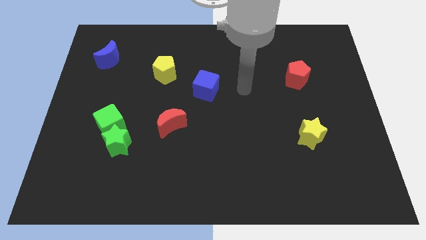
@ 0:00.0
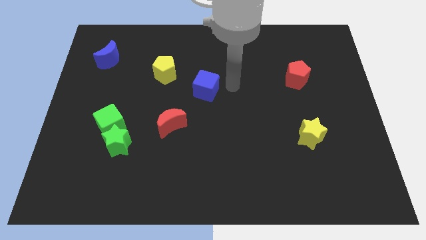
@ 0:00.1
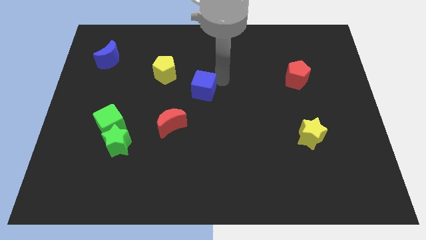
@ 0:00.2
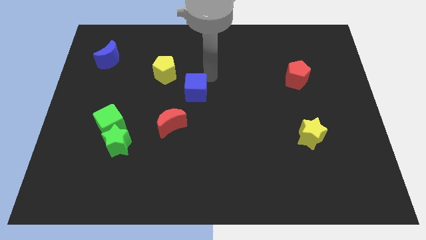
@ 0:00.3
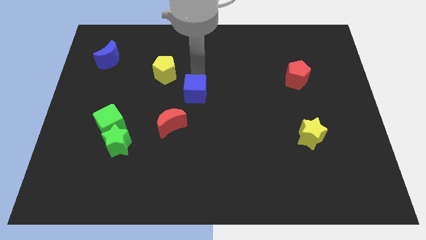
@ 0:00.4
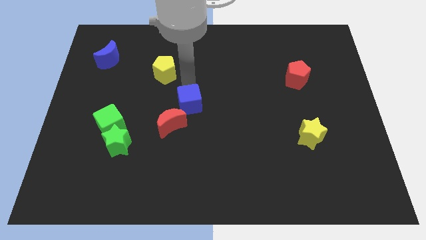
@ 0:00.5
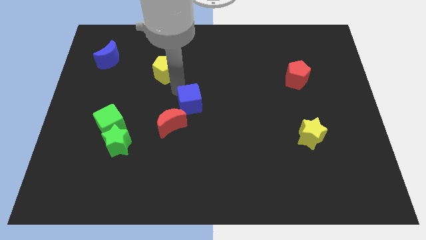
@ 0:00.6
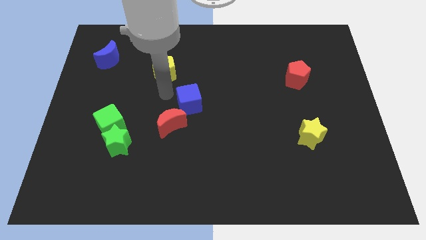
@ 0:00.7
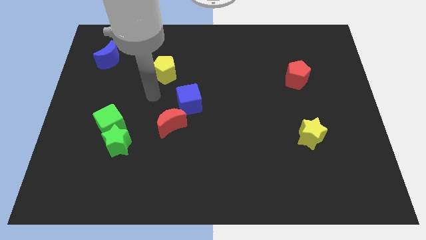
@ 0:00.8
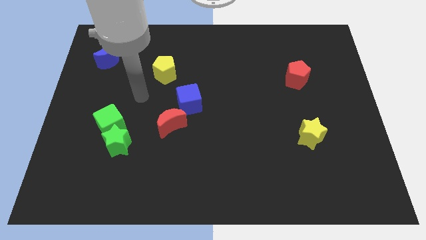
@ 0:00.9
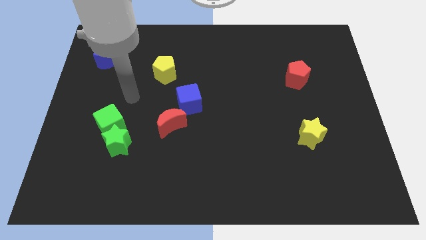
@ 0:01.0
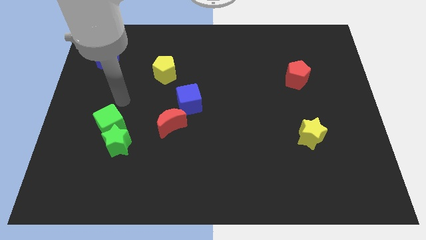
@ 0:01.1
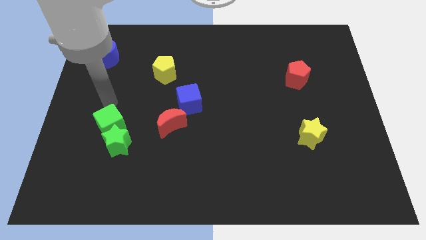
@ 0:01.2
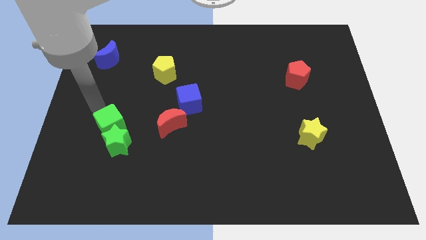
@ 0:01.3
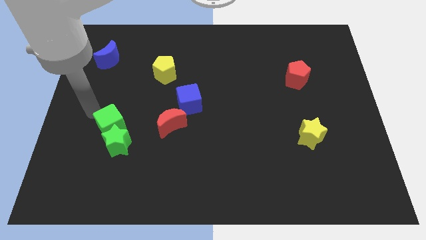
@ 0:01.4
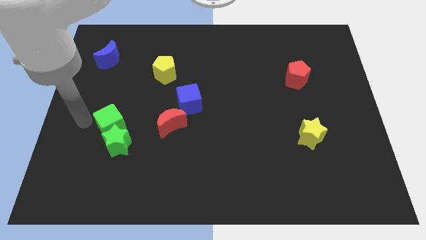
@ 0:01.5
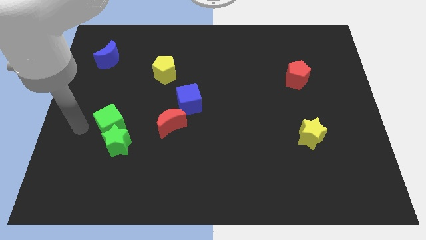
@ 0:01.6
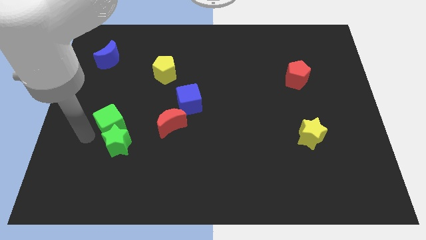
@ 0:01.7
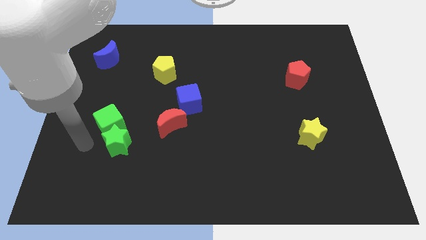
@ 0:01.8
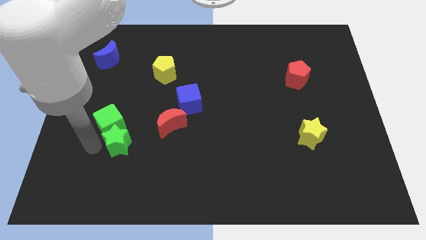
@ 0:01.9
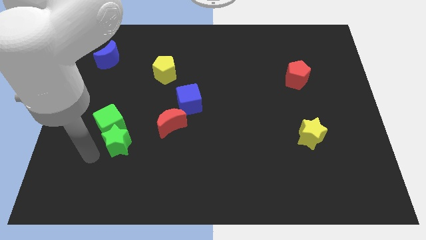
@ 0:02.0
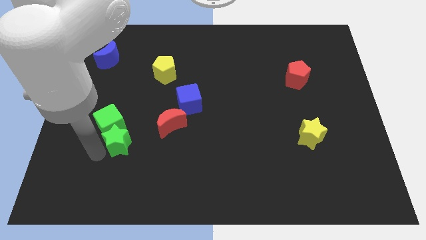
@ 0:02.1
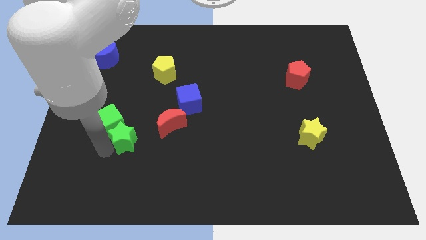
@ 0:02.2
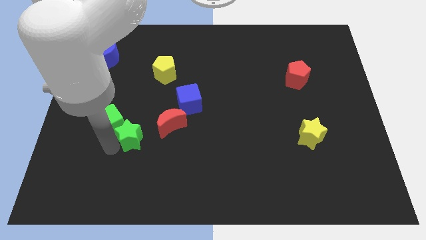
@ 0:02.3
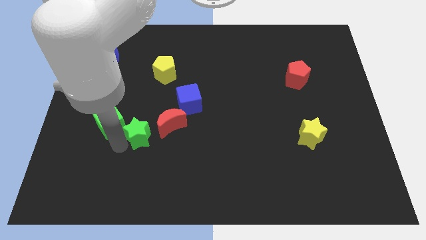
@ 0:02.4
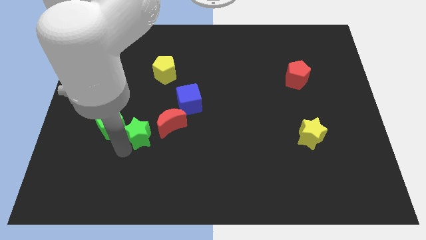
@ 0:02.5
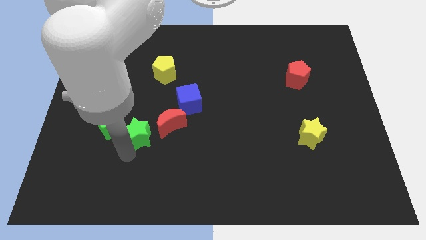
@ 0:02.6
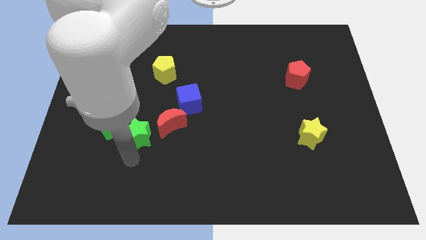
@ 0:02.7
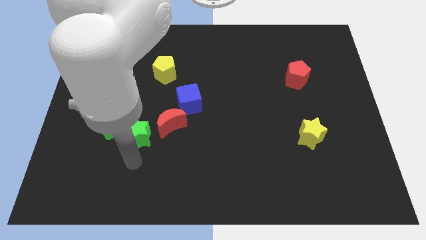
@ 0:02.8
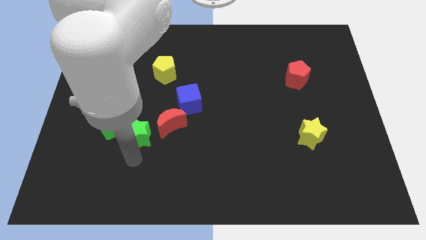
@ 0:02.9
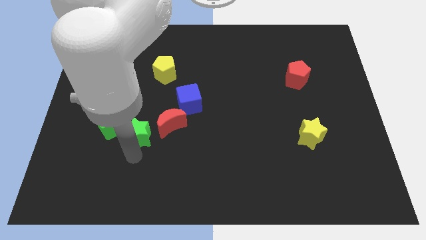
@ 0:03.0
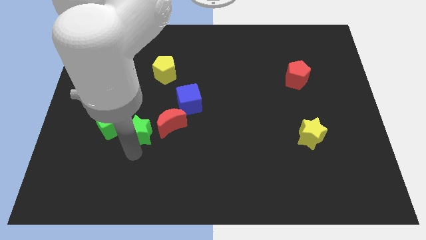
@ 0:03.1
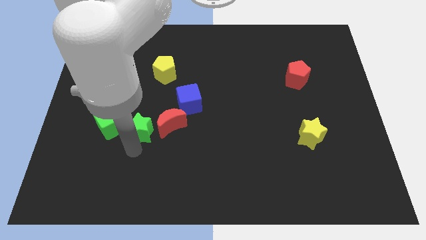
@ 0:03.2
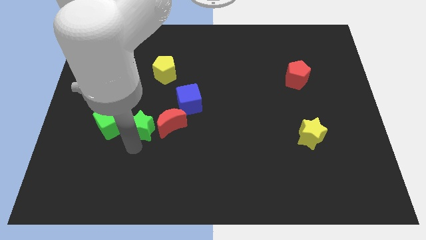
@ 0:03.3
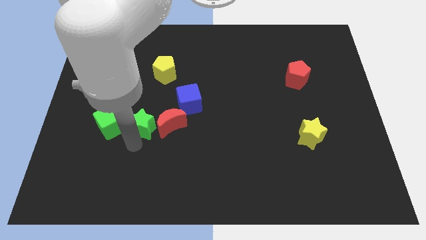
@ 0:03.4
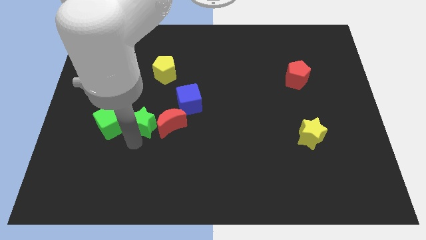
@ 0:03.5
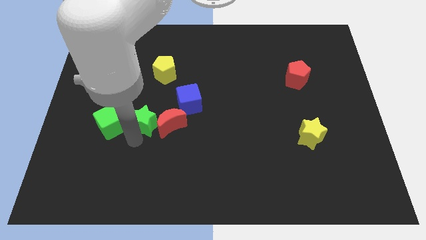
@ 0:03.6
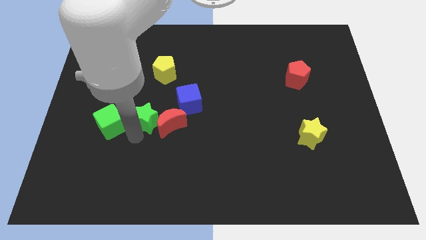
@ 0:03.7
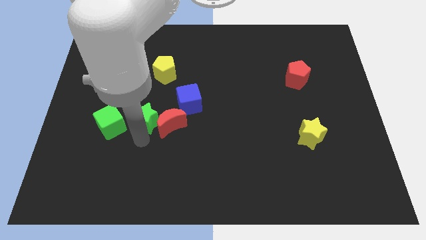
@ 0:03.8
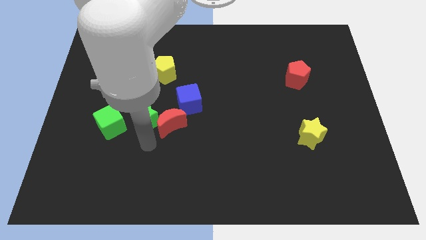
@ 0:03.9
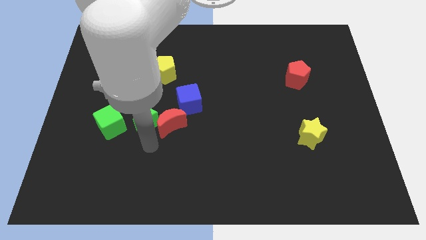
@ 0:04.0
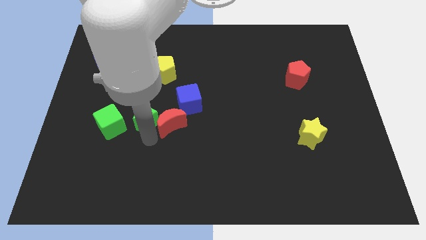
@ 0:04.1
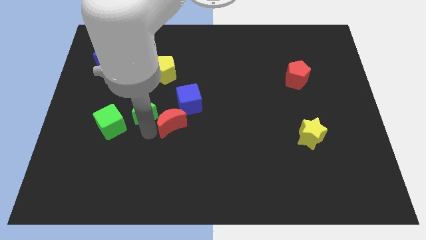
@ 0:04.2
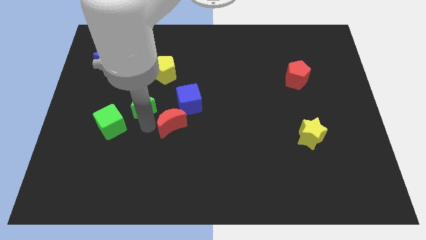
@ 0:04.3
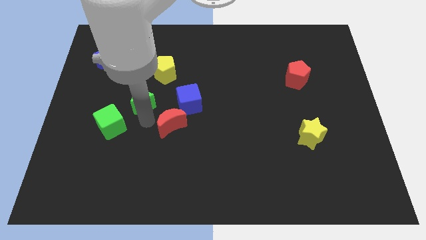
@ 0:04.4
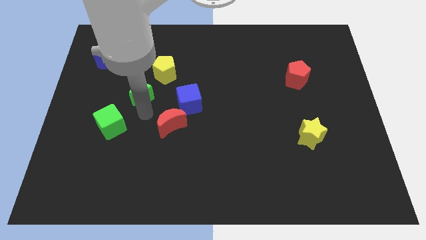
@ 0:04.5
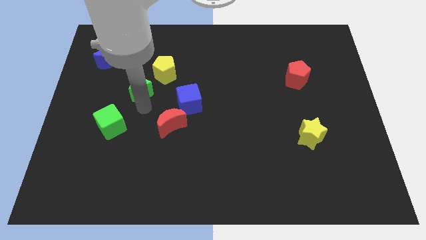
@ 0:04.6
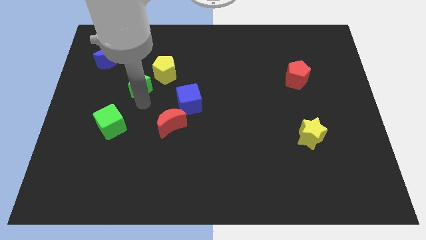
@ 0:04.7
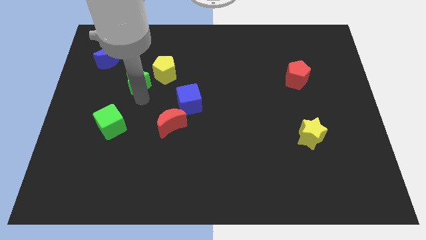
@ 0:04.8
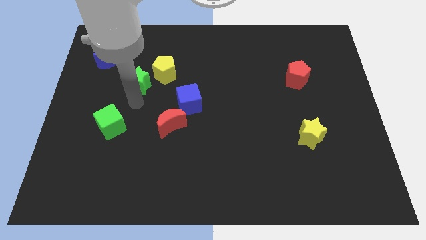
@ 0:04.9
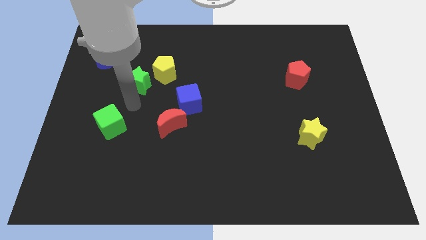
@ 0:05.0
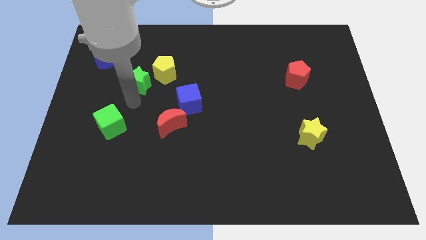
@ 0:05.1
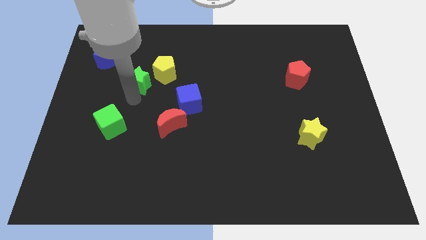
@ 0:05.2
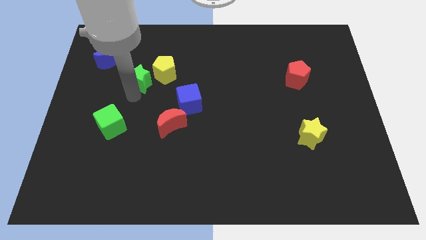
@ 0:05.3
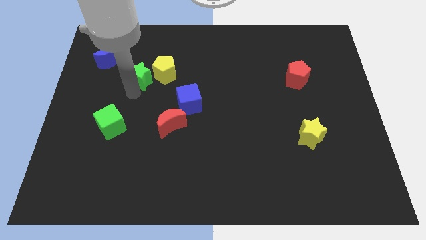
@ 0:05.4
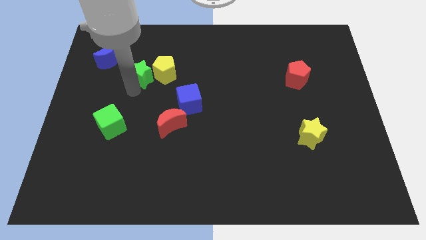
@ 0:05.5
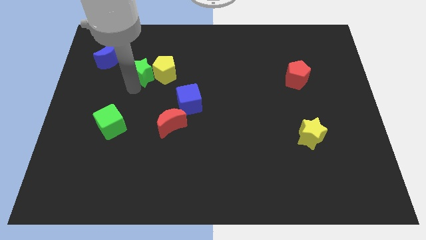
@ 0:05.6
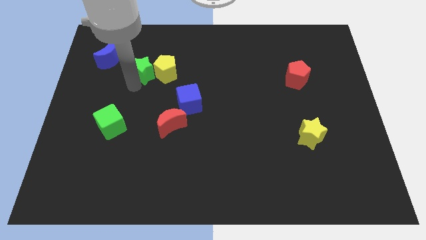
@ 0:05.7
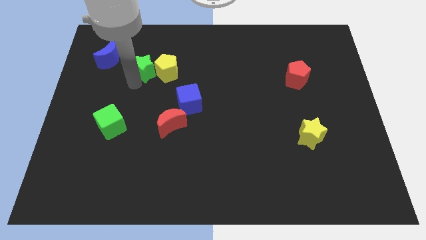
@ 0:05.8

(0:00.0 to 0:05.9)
put the green star to the right side of the blue moon

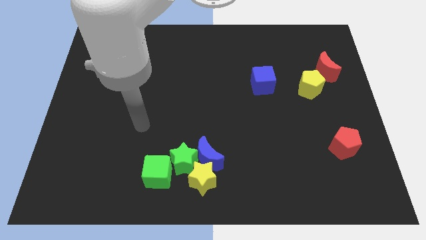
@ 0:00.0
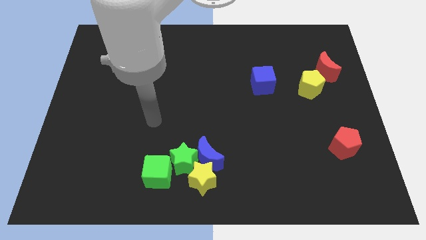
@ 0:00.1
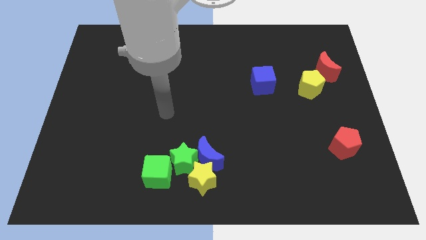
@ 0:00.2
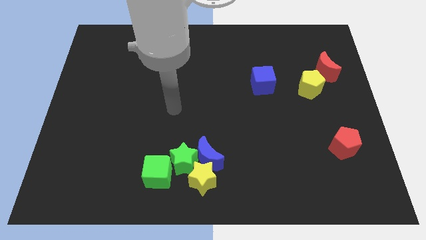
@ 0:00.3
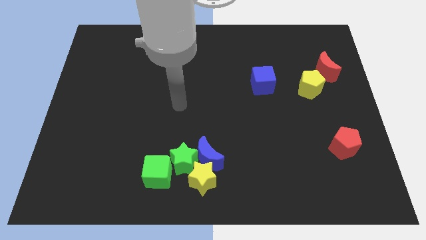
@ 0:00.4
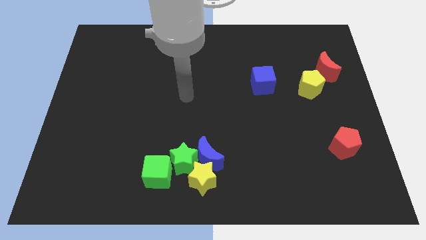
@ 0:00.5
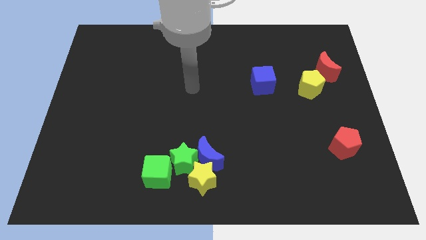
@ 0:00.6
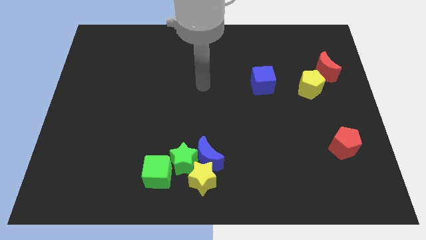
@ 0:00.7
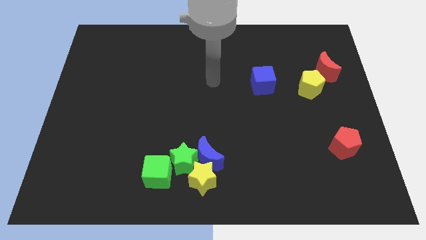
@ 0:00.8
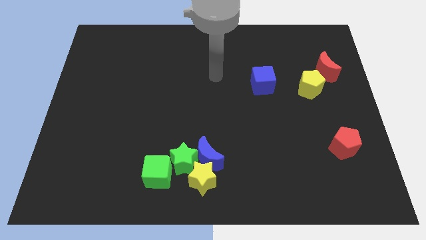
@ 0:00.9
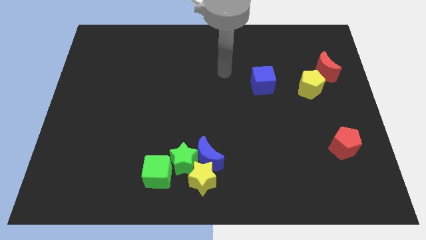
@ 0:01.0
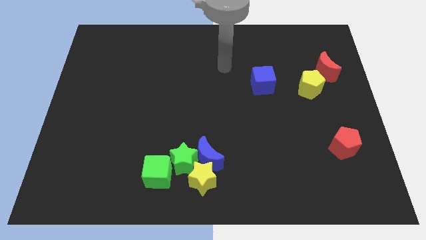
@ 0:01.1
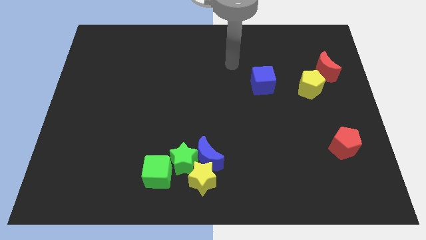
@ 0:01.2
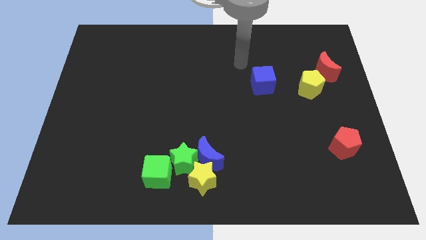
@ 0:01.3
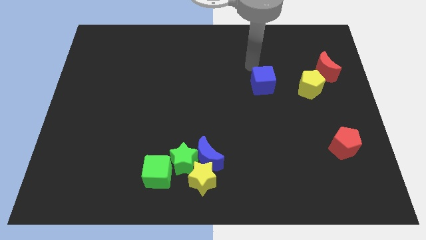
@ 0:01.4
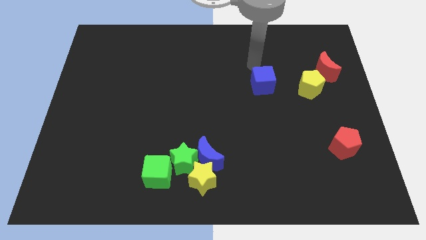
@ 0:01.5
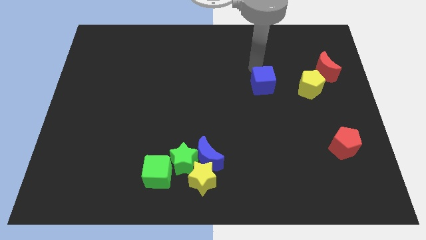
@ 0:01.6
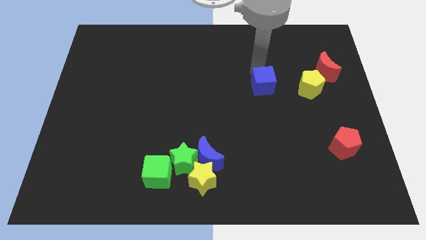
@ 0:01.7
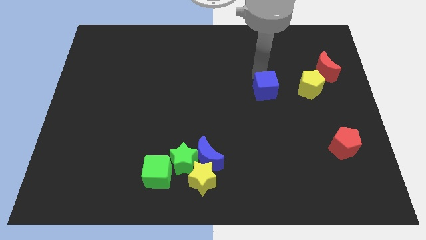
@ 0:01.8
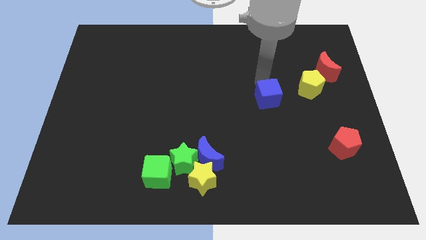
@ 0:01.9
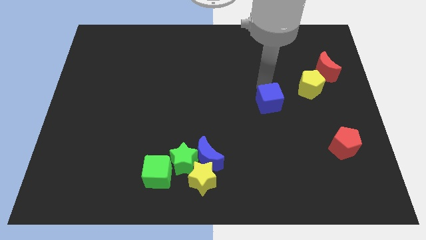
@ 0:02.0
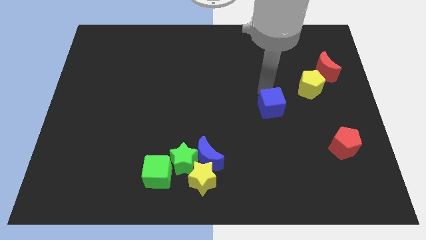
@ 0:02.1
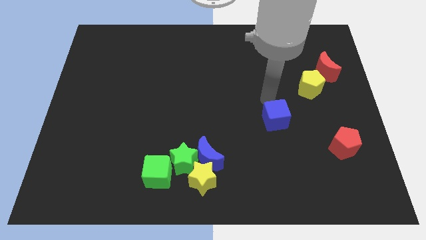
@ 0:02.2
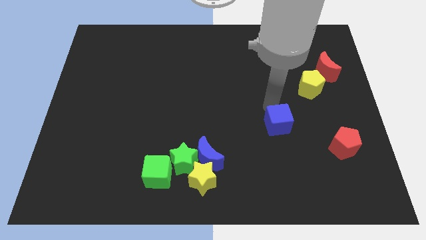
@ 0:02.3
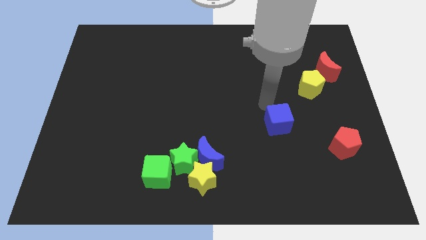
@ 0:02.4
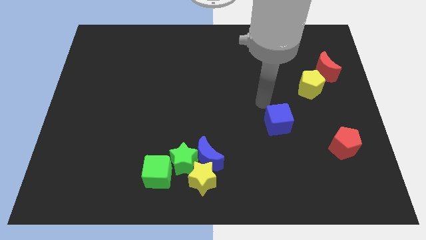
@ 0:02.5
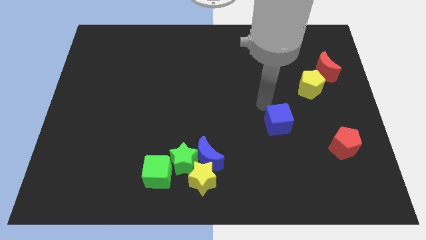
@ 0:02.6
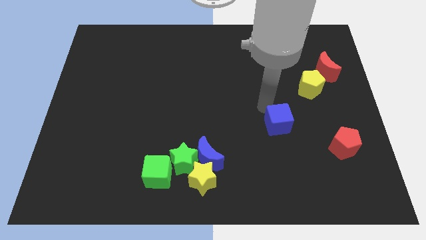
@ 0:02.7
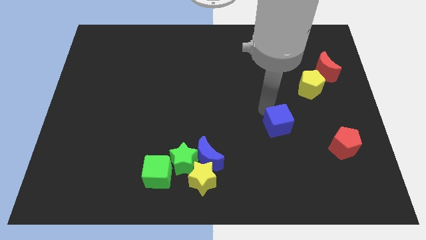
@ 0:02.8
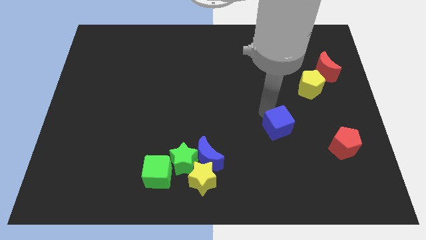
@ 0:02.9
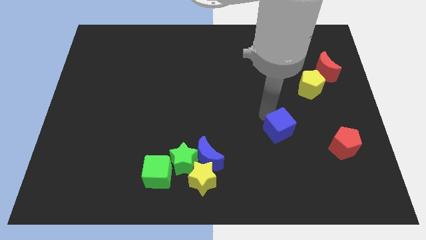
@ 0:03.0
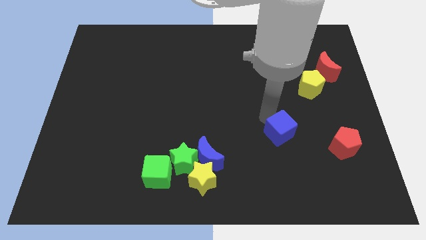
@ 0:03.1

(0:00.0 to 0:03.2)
slide the blue cube to the left side of the red pentagon
